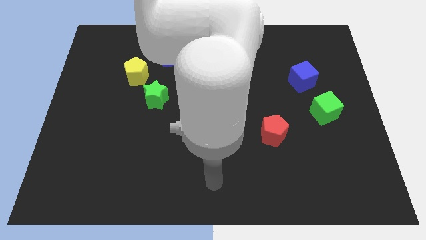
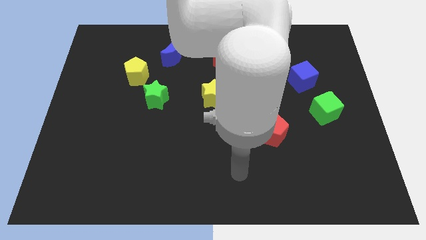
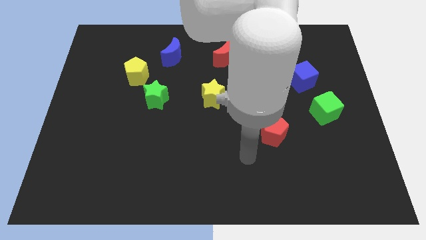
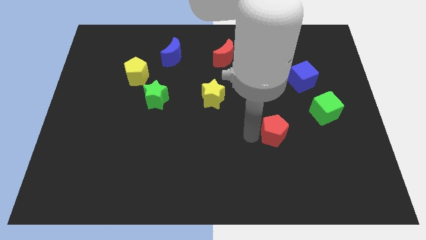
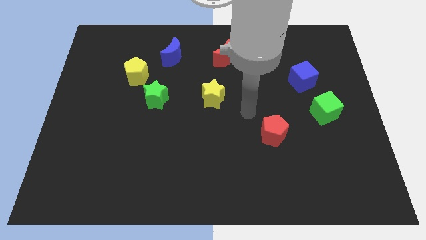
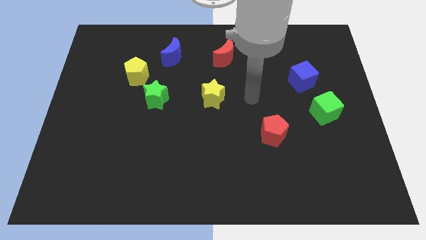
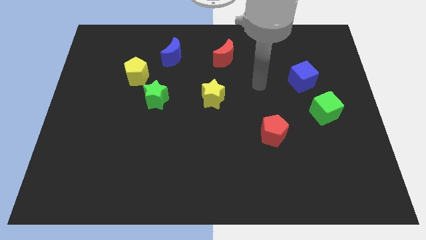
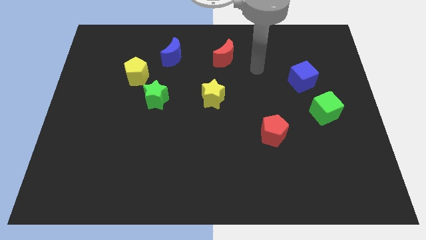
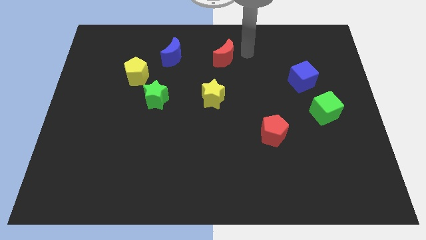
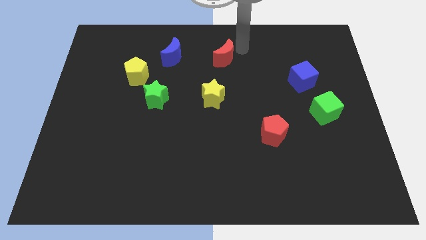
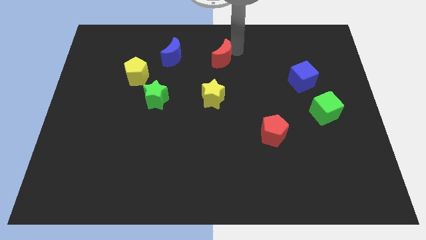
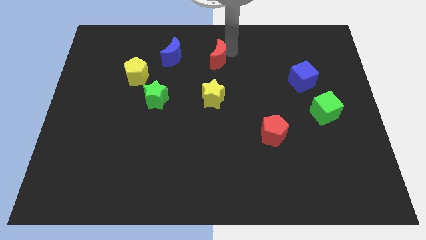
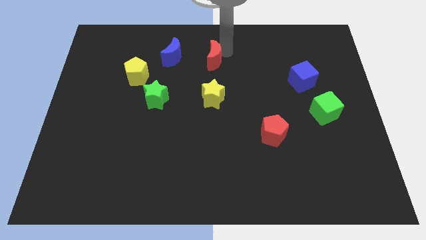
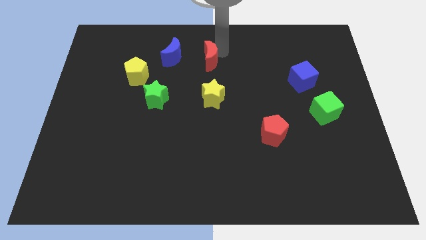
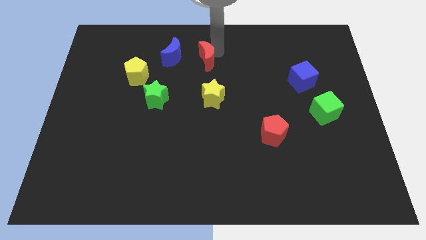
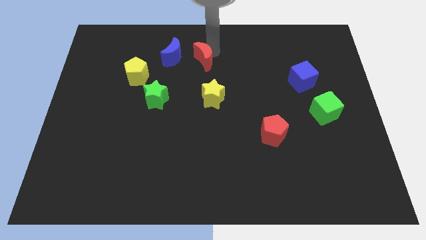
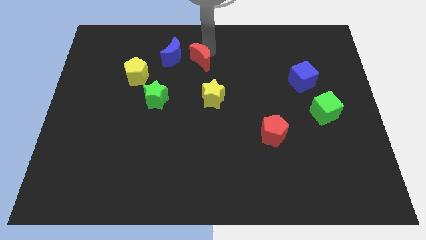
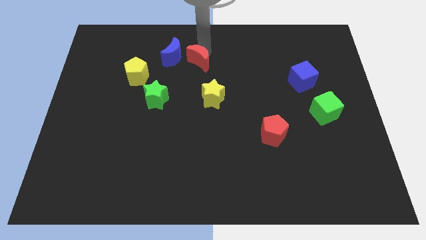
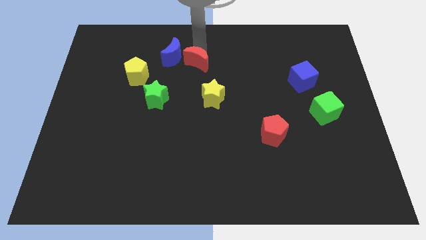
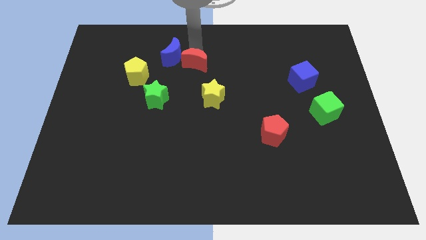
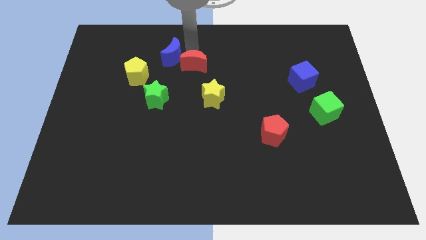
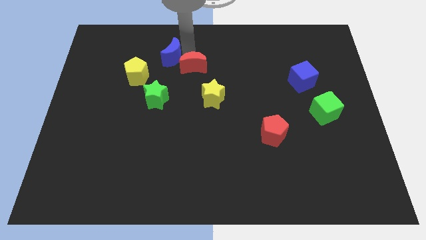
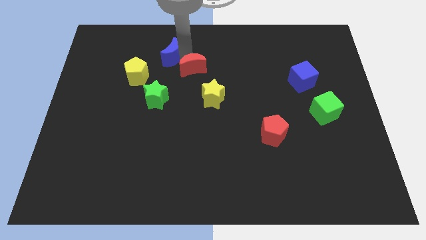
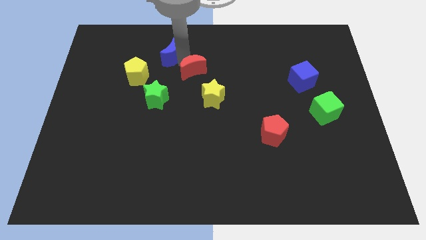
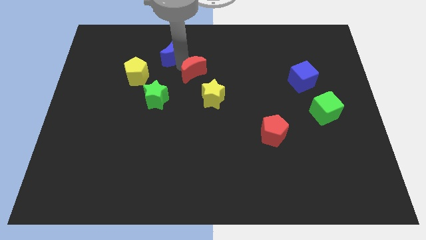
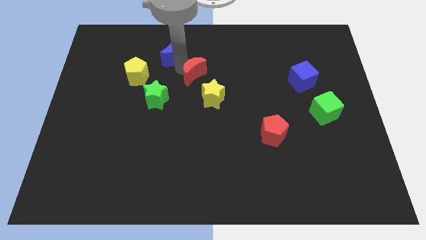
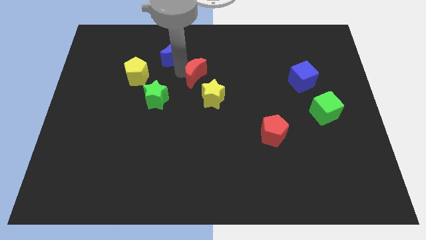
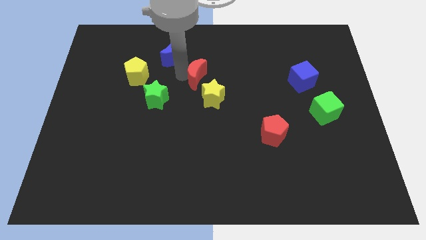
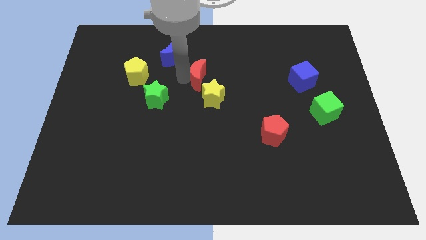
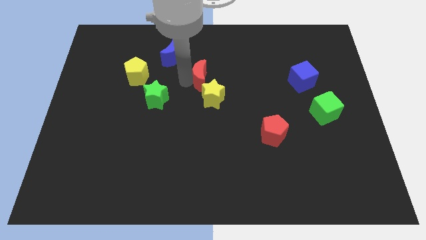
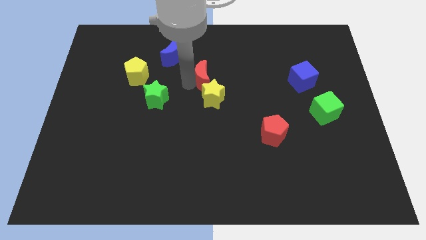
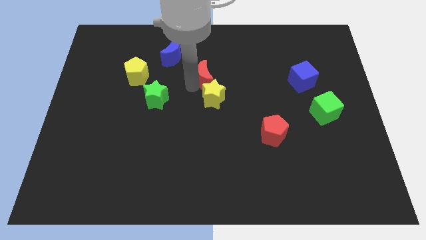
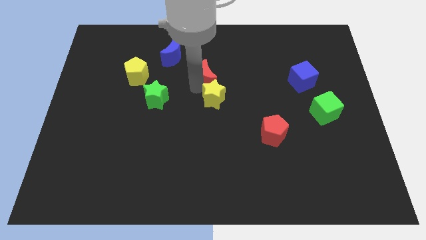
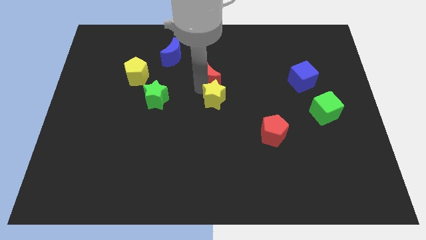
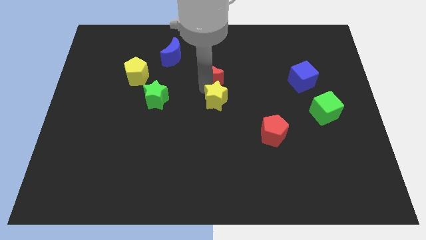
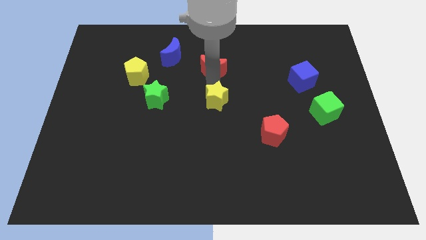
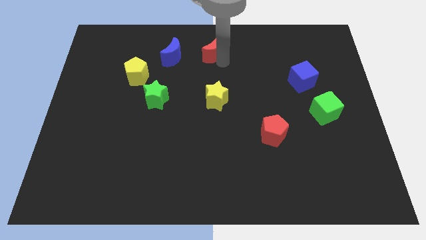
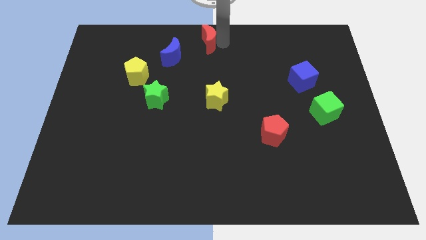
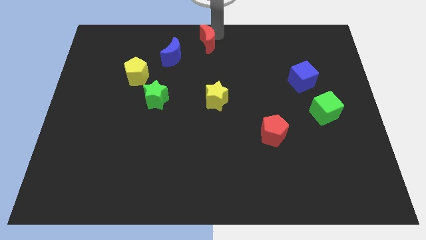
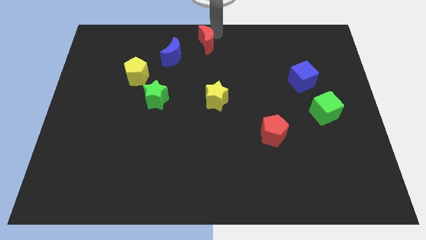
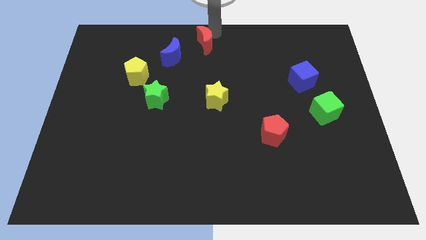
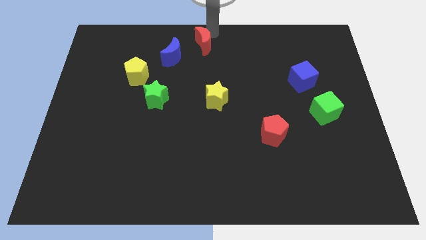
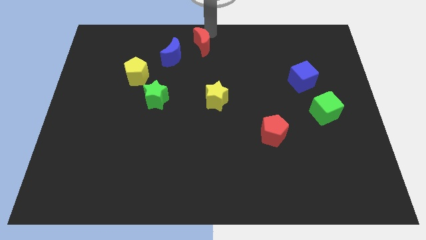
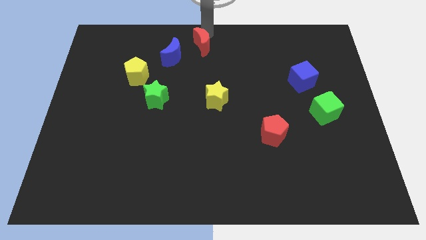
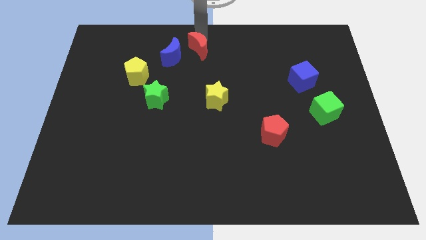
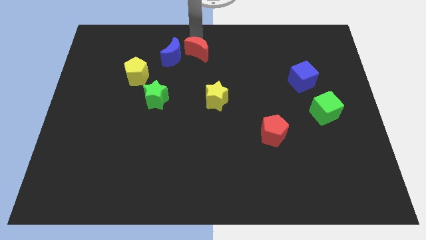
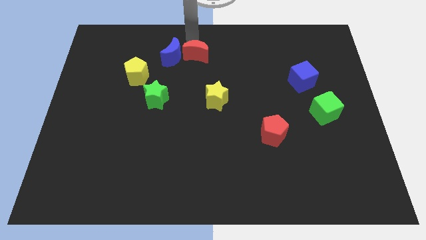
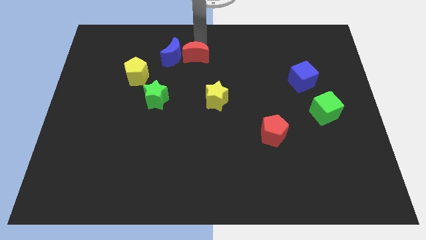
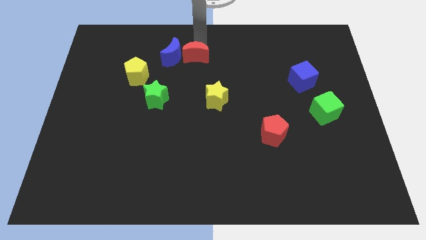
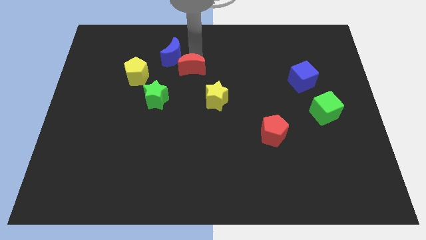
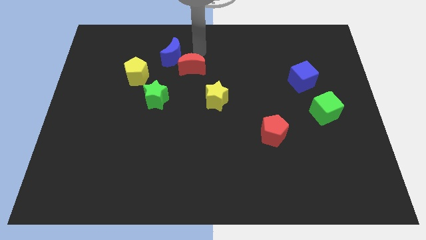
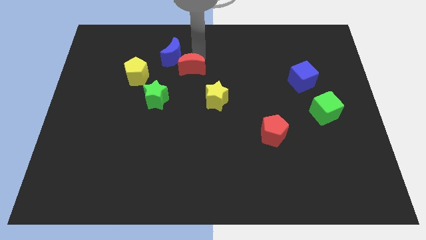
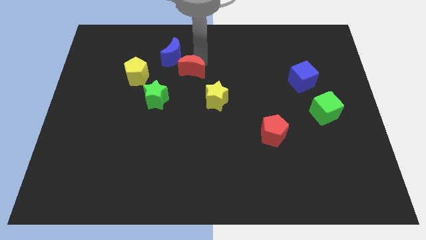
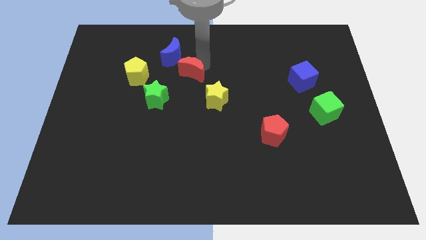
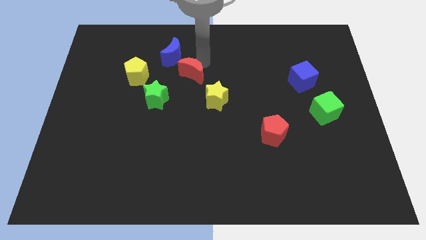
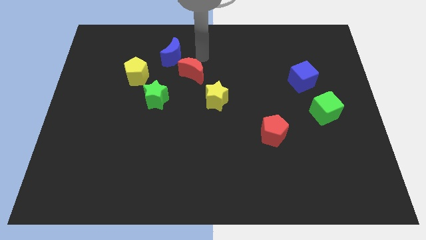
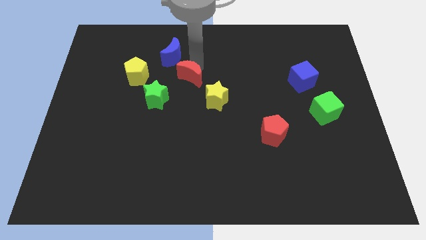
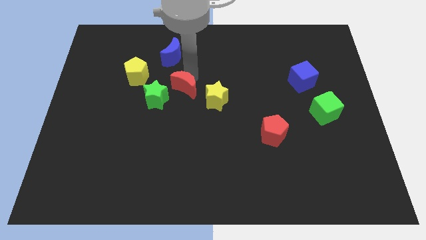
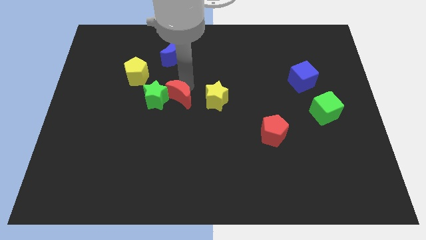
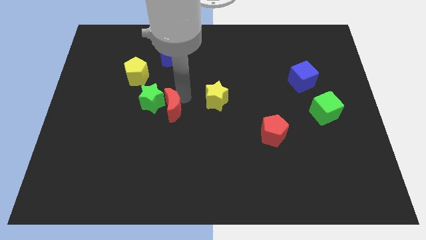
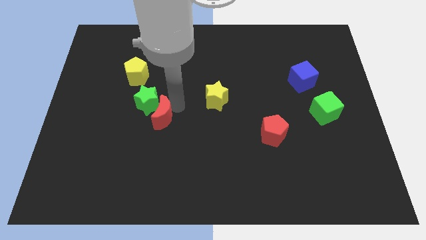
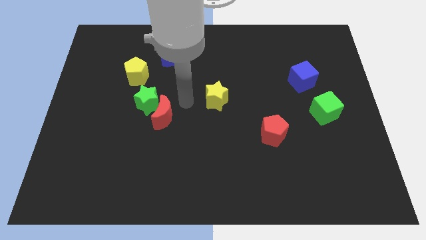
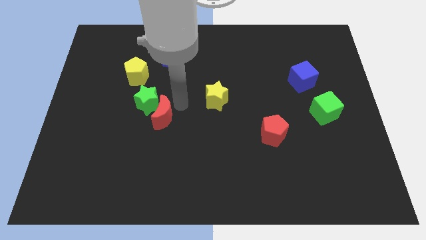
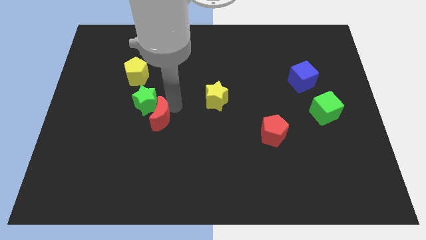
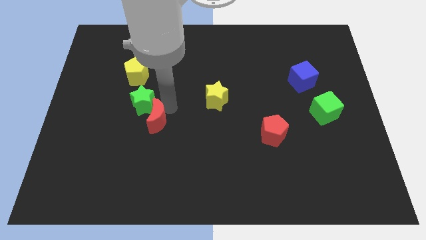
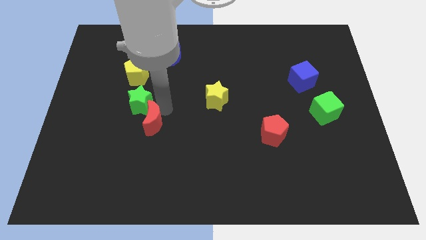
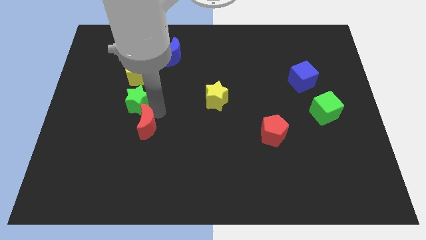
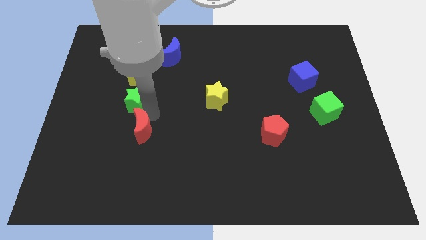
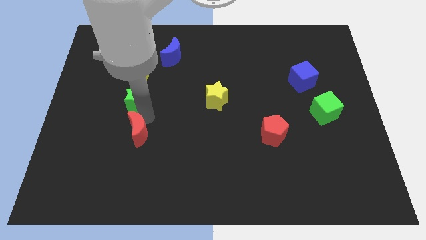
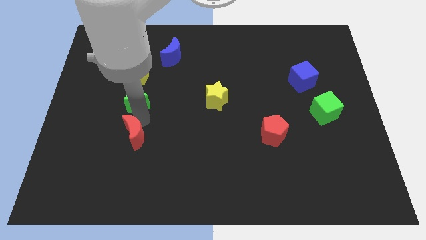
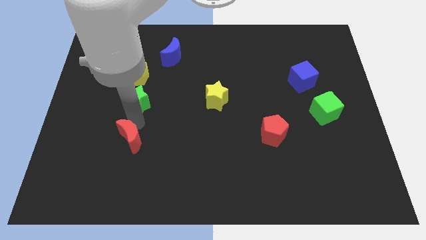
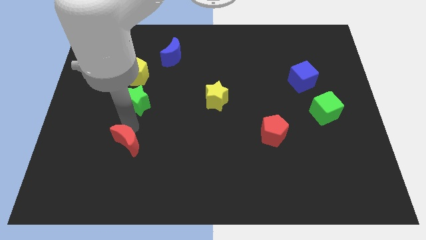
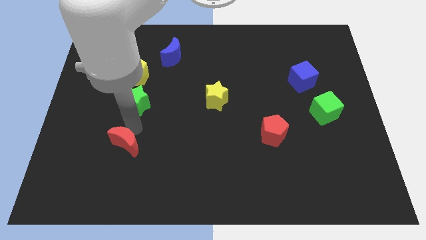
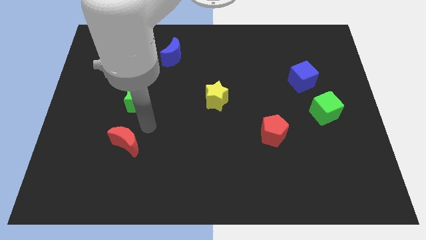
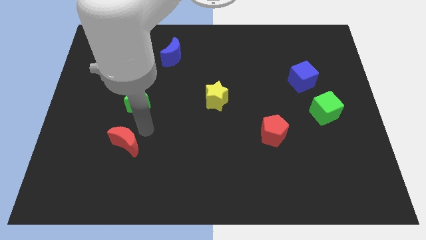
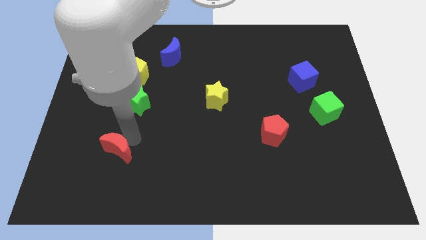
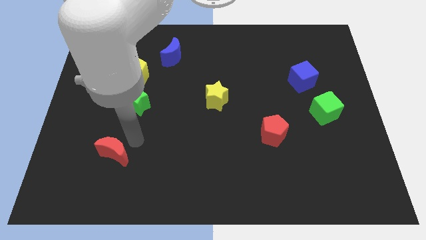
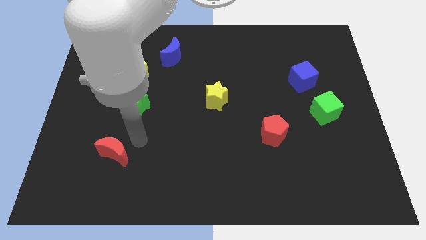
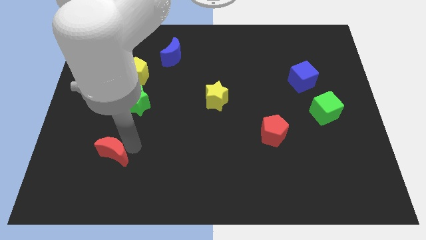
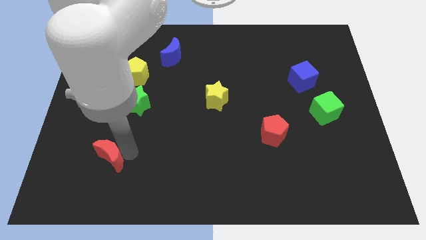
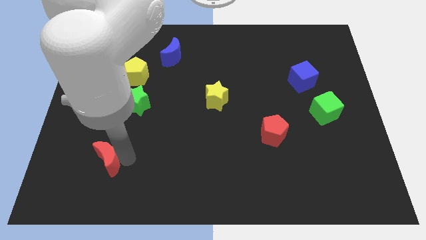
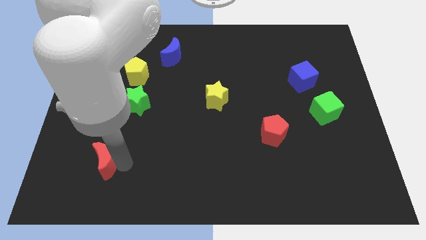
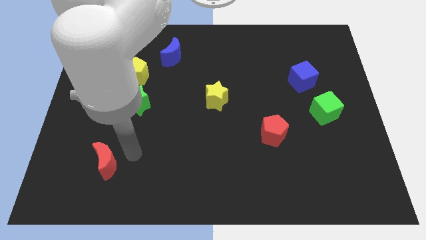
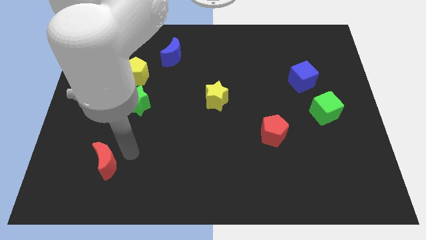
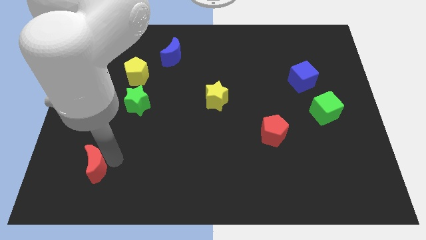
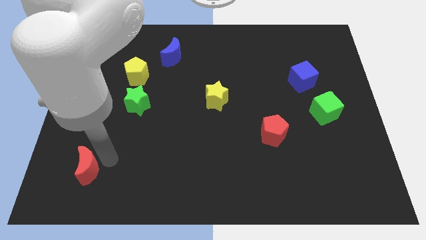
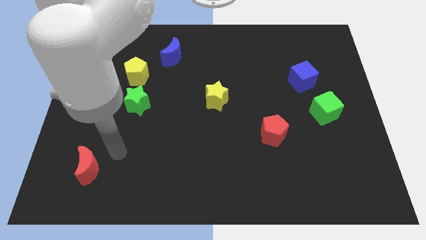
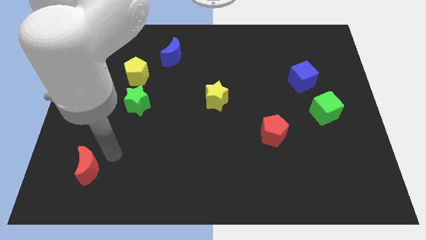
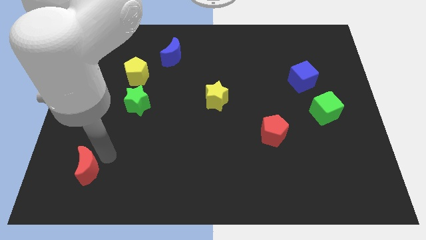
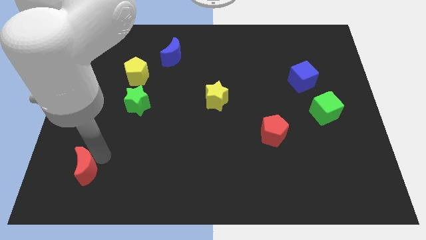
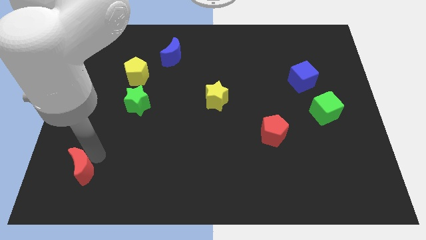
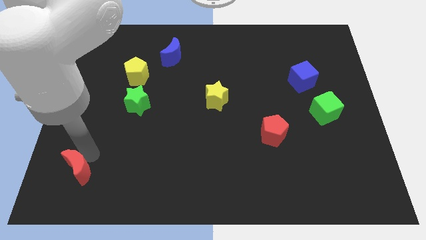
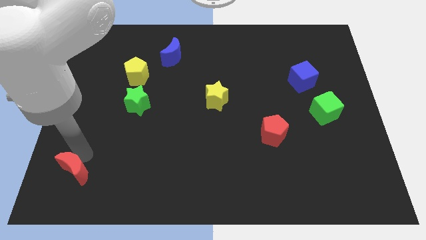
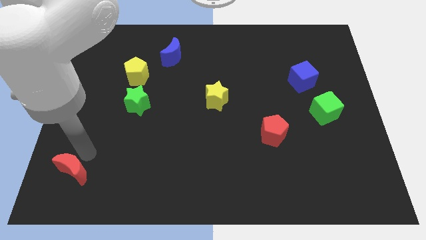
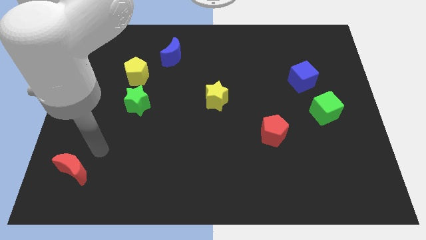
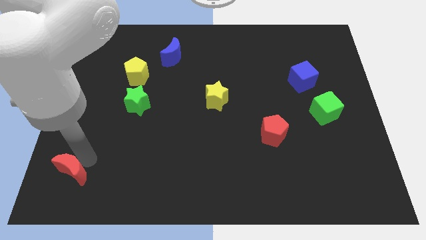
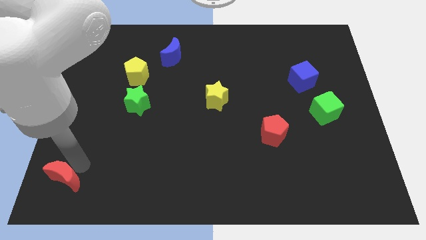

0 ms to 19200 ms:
slide the red moon to the bottom left corner
